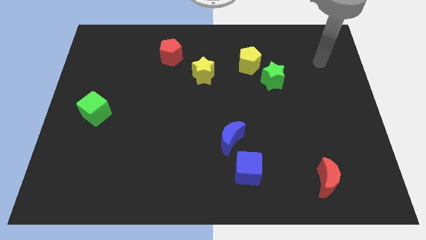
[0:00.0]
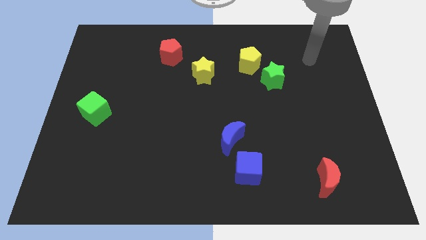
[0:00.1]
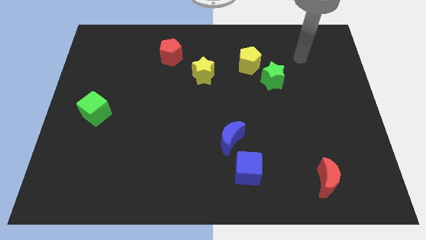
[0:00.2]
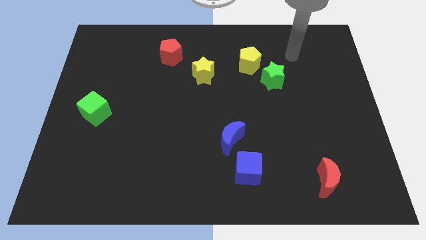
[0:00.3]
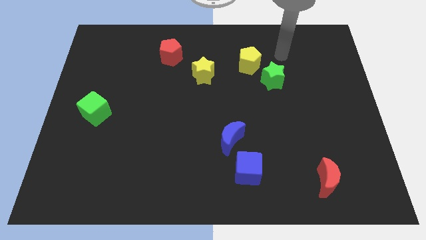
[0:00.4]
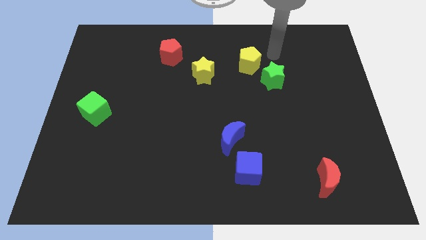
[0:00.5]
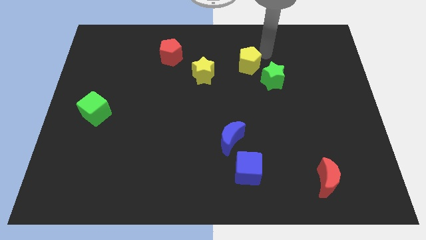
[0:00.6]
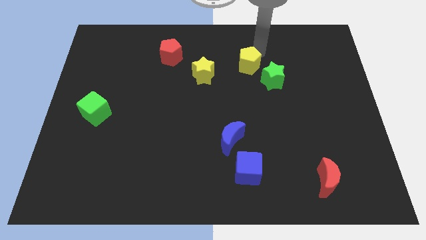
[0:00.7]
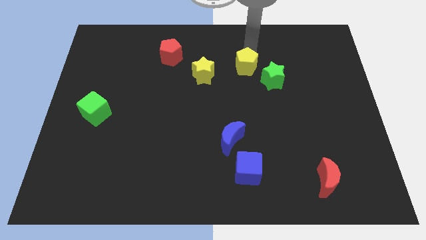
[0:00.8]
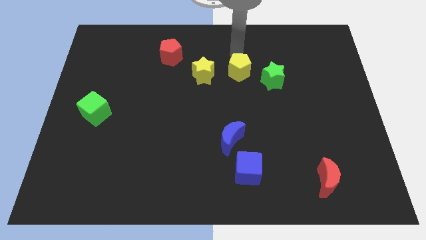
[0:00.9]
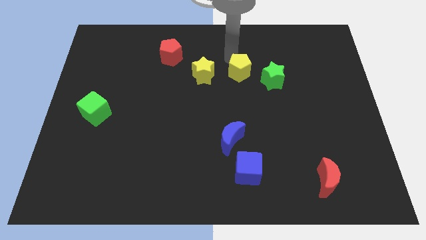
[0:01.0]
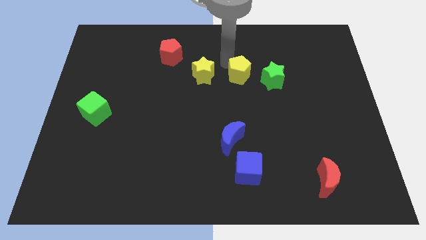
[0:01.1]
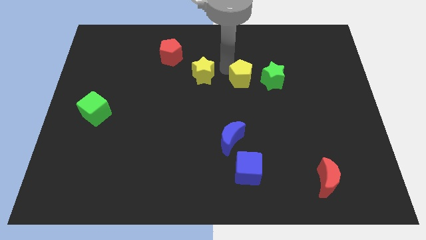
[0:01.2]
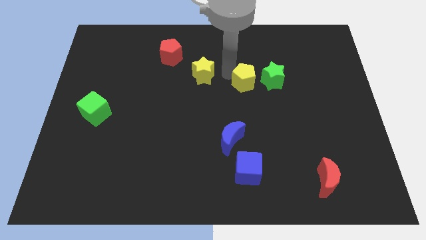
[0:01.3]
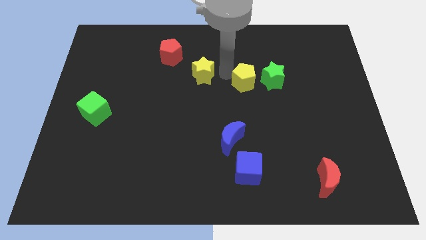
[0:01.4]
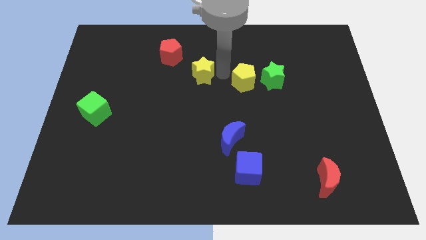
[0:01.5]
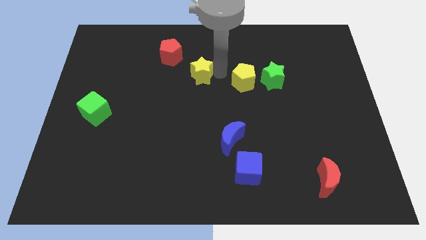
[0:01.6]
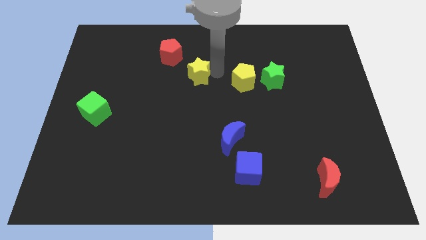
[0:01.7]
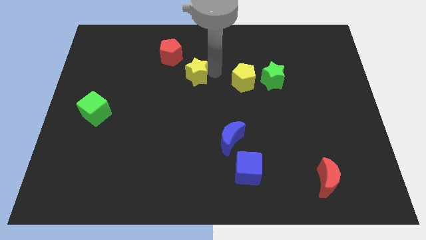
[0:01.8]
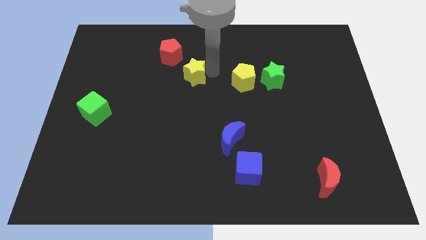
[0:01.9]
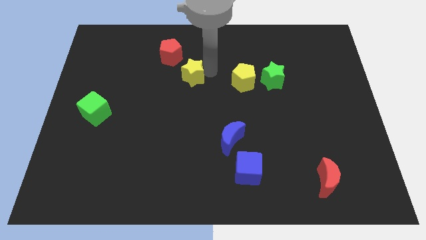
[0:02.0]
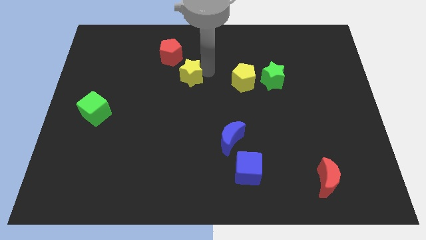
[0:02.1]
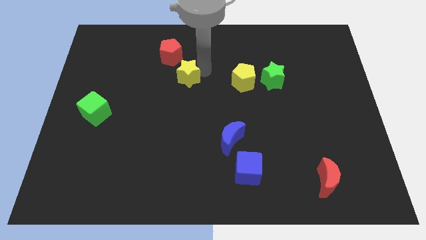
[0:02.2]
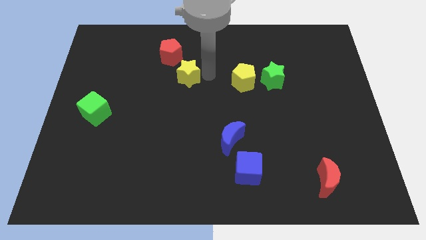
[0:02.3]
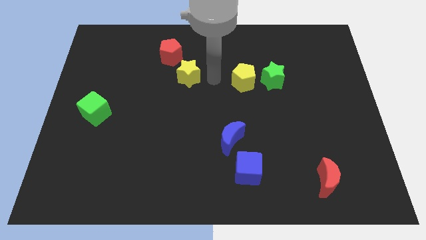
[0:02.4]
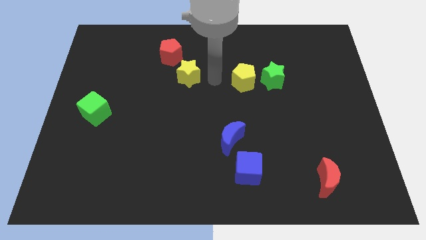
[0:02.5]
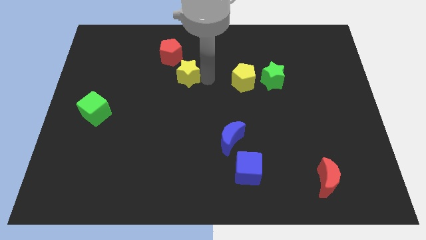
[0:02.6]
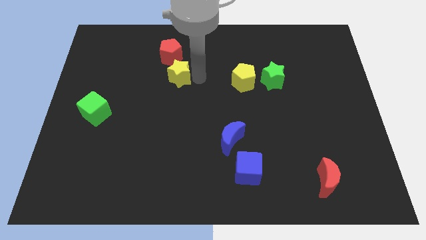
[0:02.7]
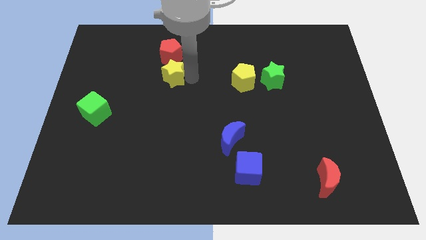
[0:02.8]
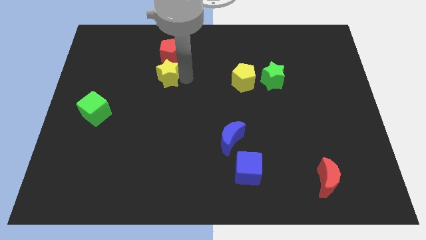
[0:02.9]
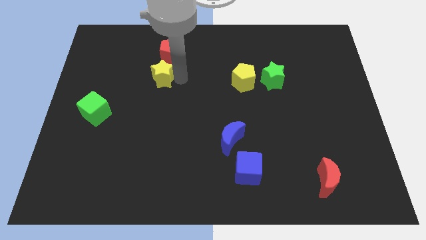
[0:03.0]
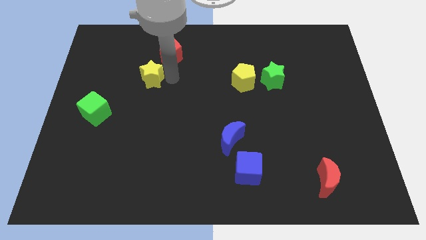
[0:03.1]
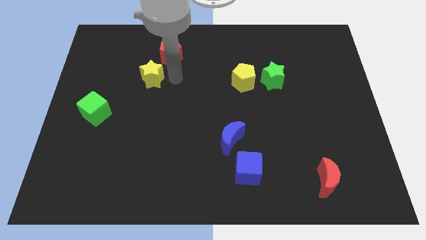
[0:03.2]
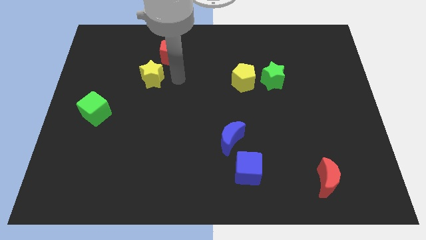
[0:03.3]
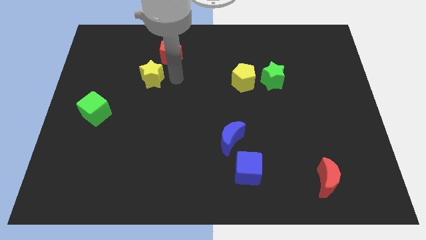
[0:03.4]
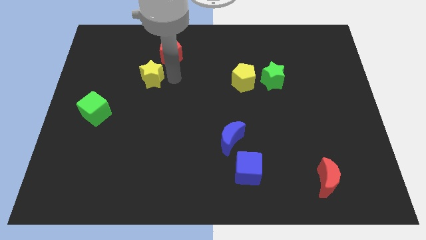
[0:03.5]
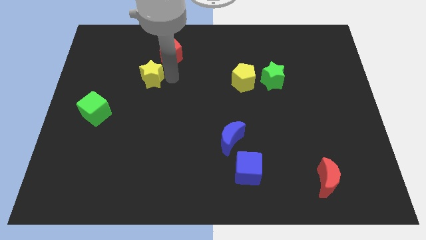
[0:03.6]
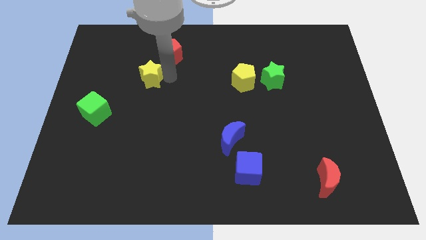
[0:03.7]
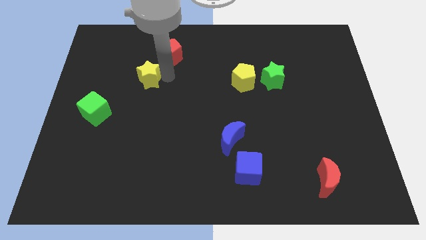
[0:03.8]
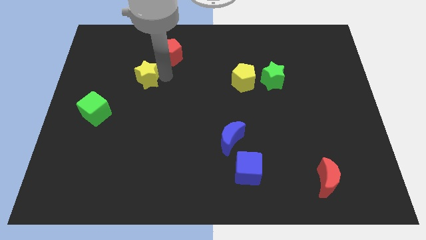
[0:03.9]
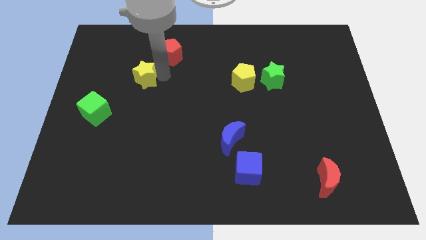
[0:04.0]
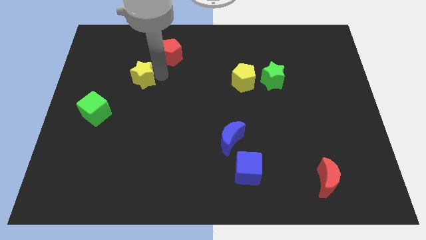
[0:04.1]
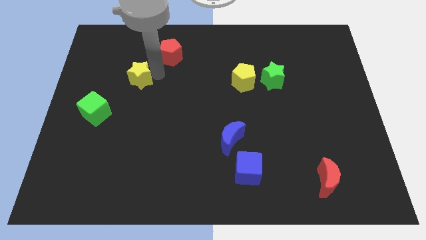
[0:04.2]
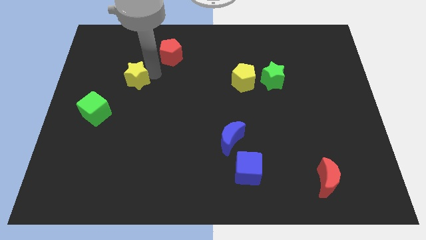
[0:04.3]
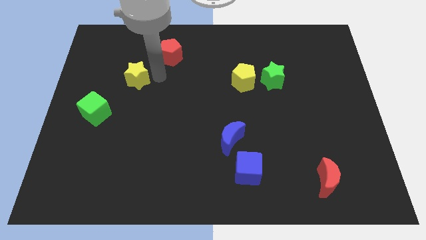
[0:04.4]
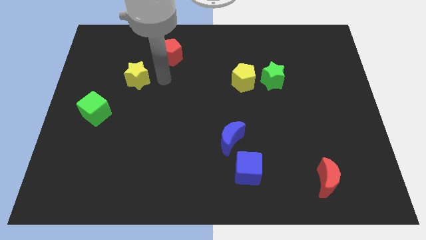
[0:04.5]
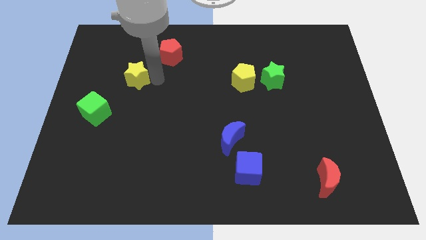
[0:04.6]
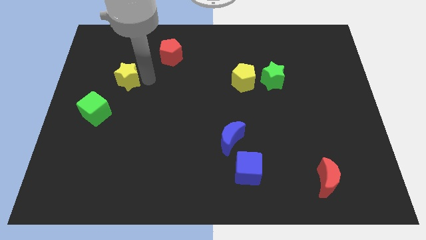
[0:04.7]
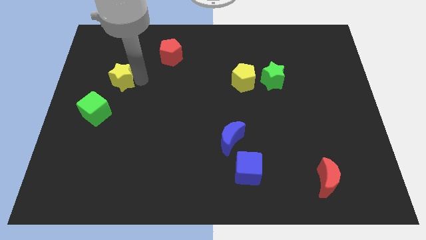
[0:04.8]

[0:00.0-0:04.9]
push the yellow star above the green cube

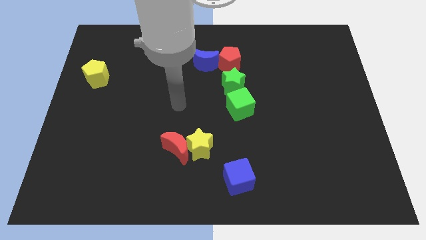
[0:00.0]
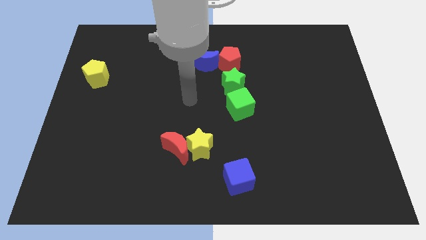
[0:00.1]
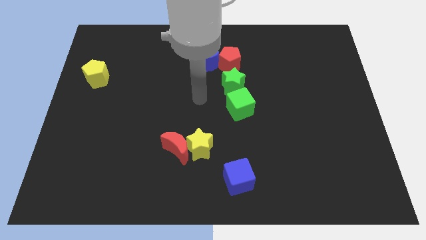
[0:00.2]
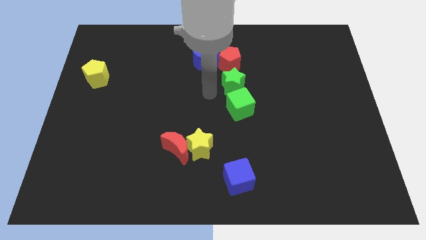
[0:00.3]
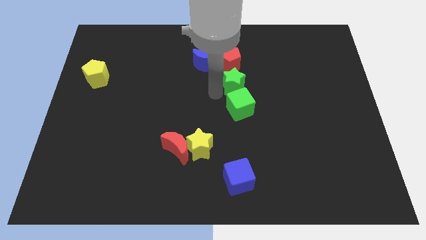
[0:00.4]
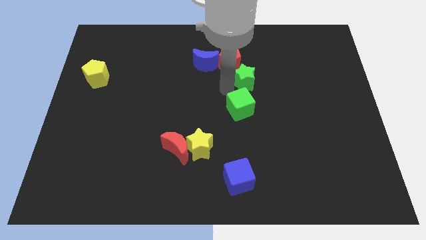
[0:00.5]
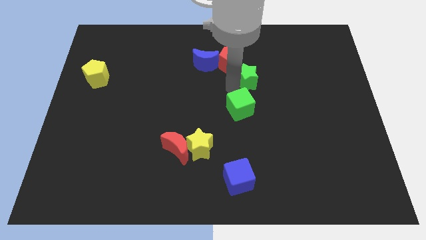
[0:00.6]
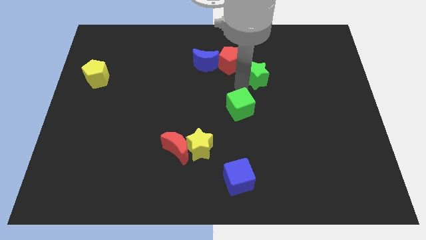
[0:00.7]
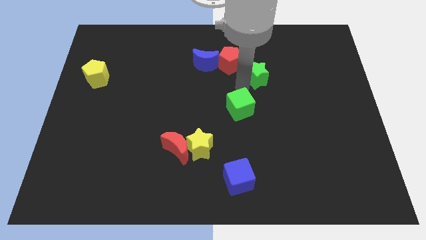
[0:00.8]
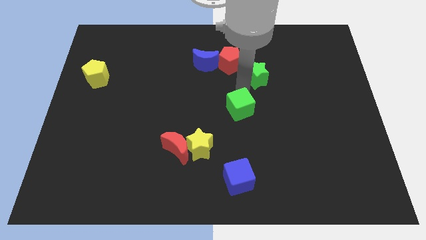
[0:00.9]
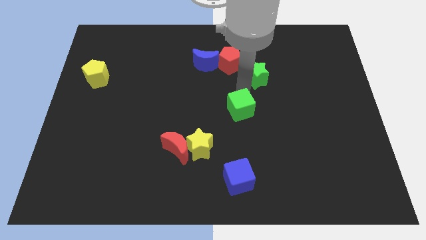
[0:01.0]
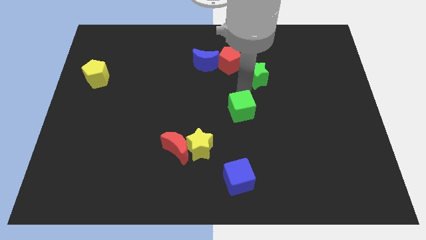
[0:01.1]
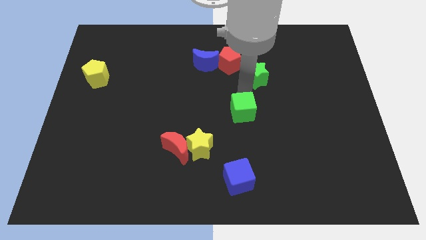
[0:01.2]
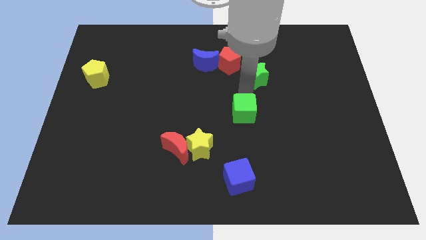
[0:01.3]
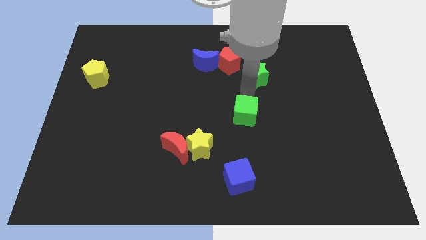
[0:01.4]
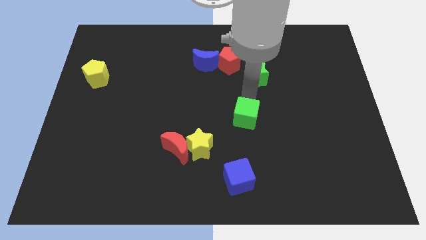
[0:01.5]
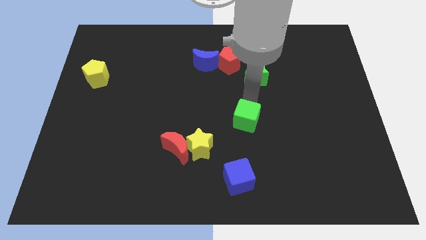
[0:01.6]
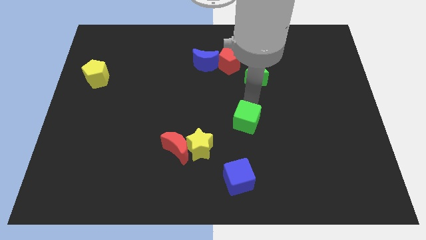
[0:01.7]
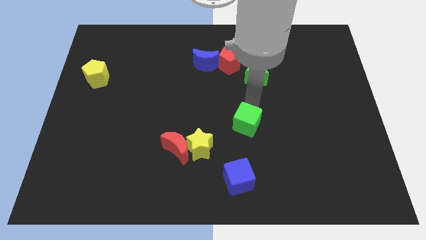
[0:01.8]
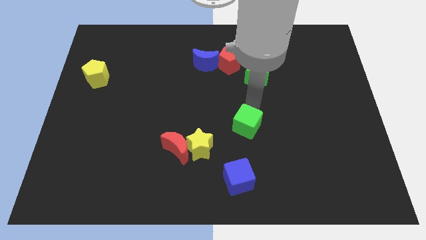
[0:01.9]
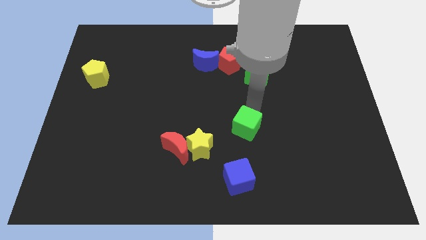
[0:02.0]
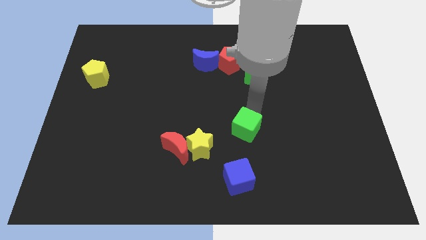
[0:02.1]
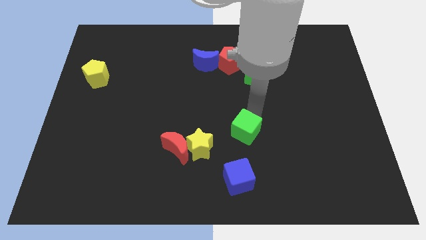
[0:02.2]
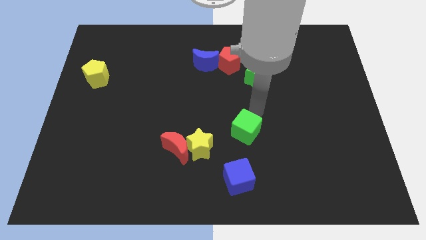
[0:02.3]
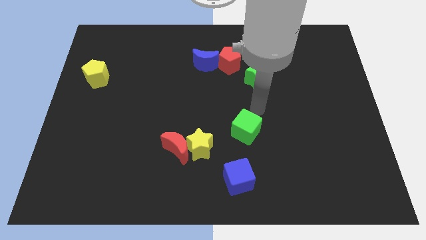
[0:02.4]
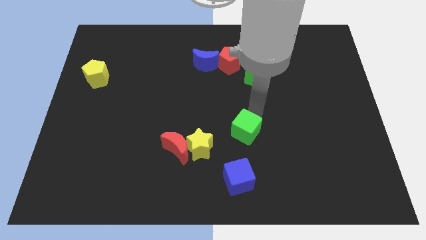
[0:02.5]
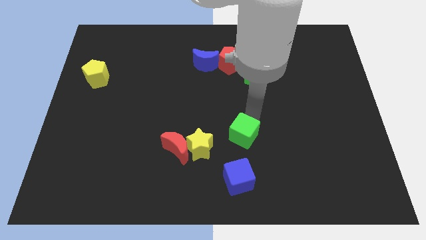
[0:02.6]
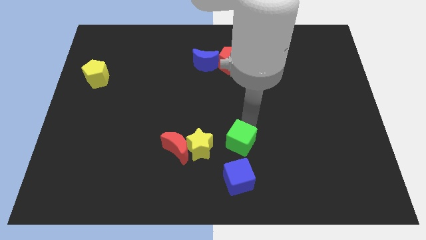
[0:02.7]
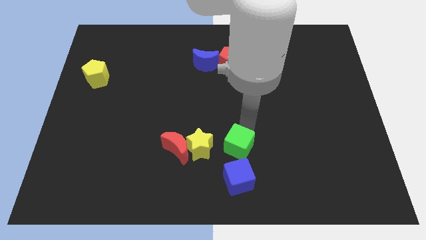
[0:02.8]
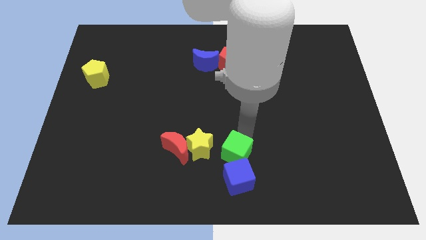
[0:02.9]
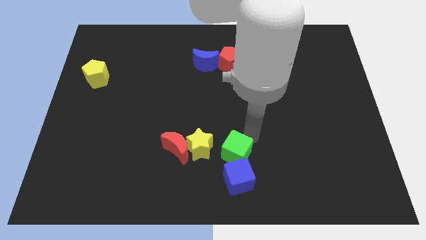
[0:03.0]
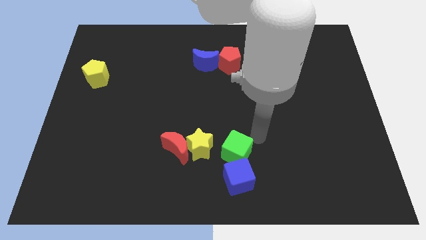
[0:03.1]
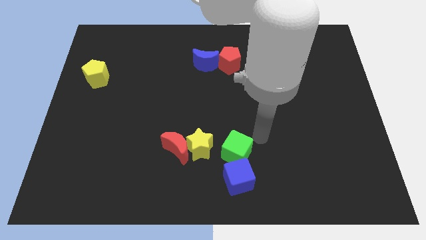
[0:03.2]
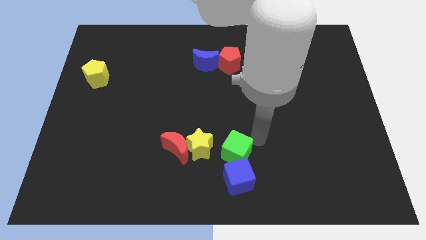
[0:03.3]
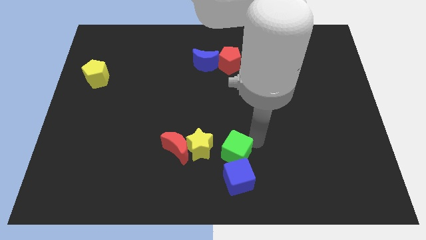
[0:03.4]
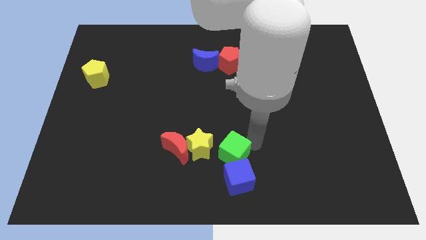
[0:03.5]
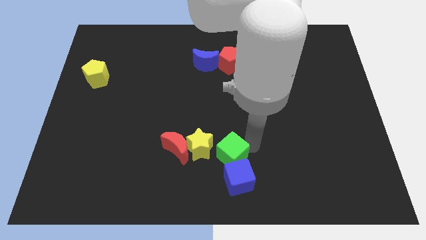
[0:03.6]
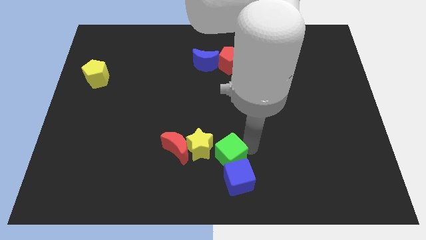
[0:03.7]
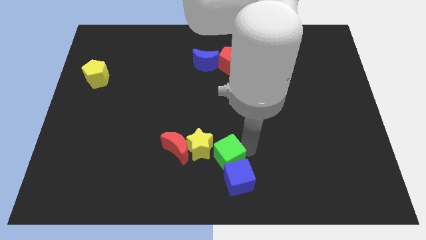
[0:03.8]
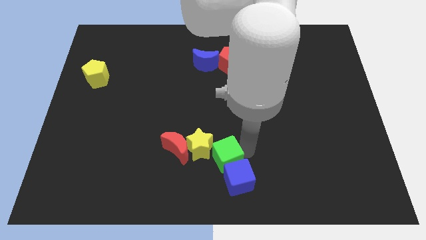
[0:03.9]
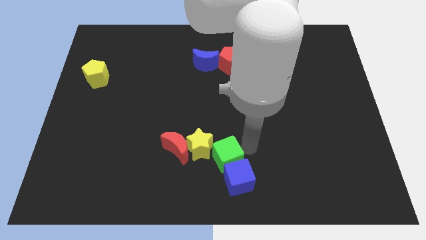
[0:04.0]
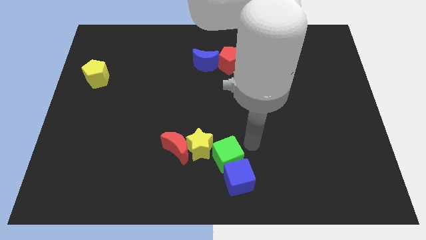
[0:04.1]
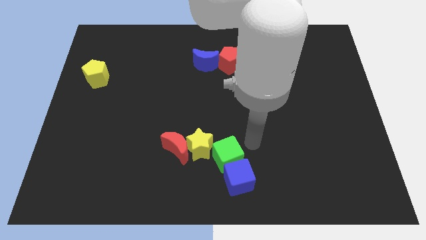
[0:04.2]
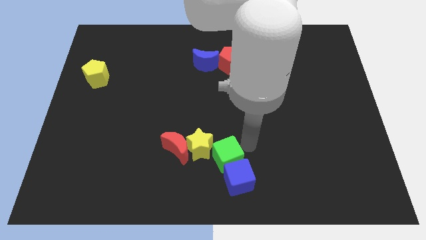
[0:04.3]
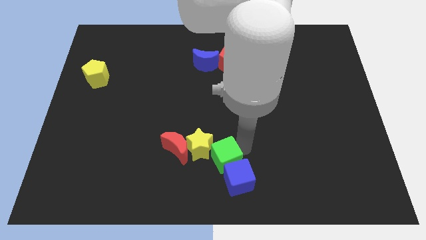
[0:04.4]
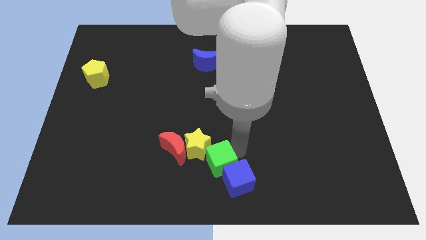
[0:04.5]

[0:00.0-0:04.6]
move the green cube to the left of the blue cube
